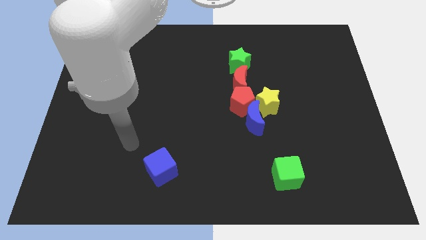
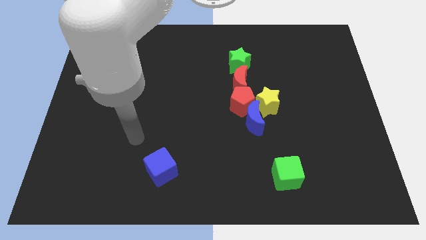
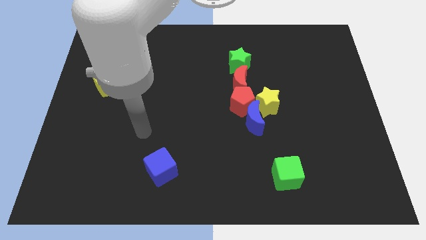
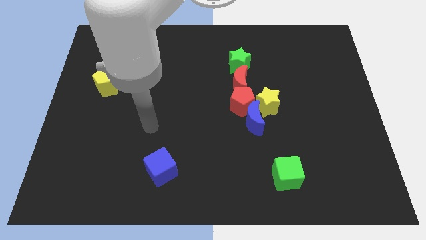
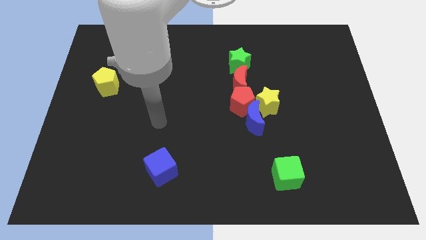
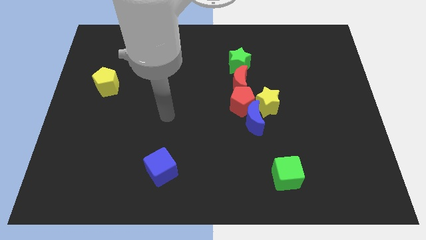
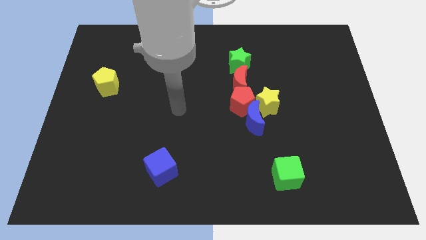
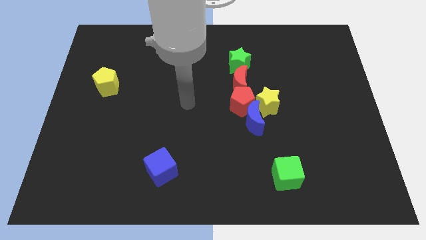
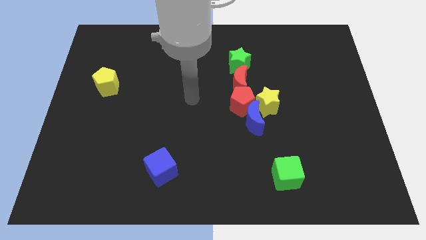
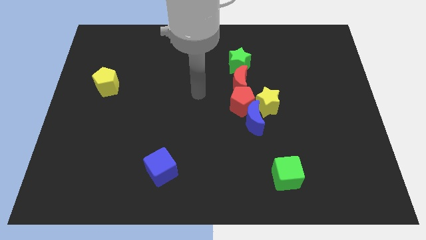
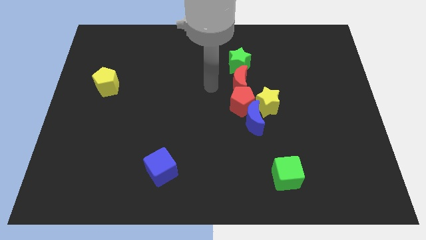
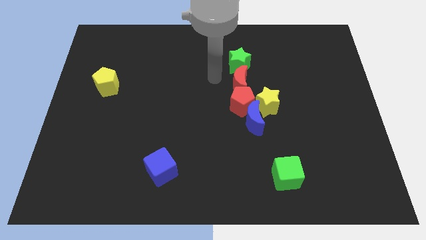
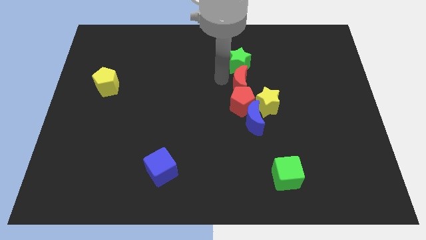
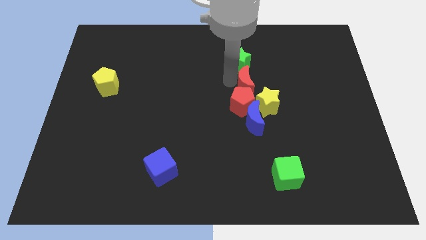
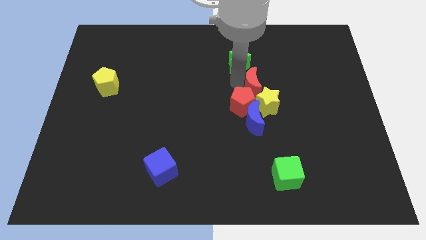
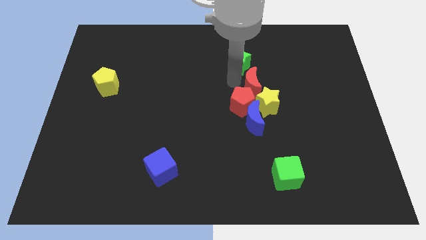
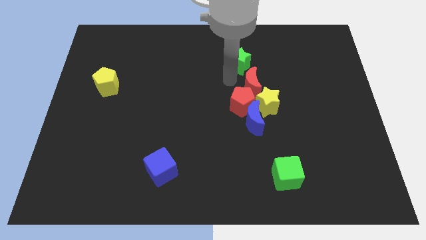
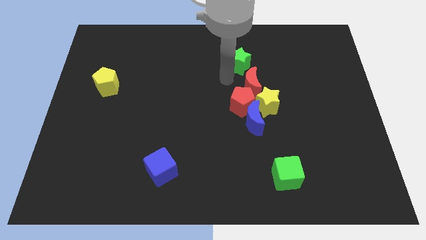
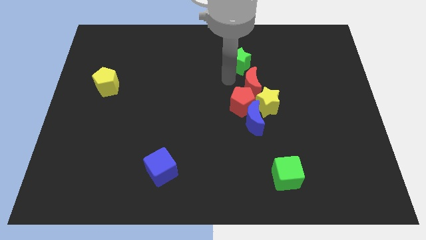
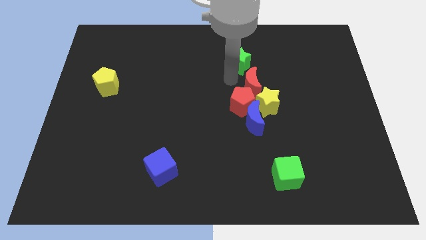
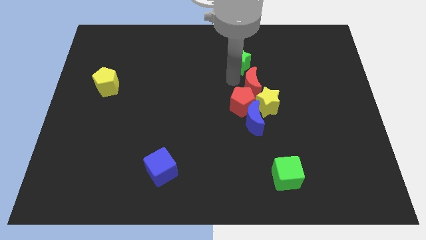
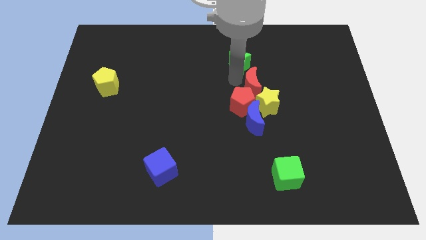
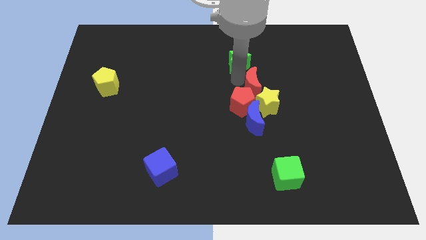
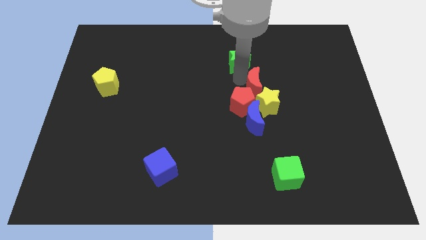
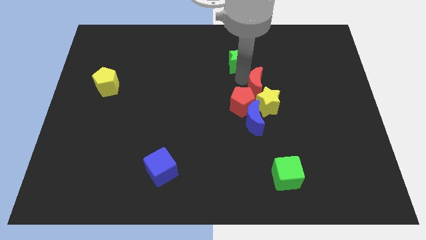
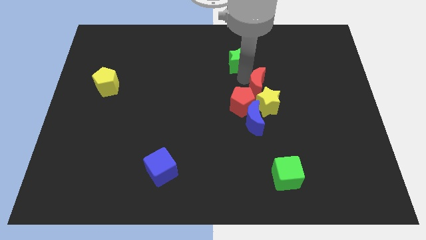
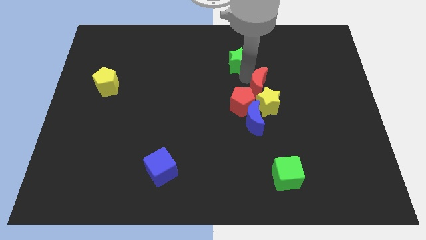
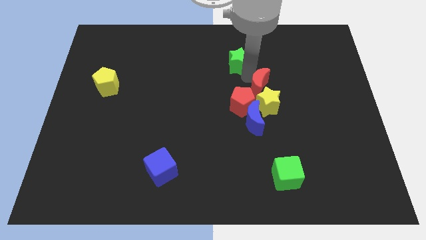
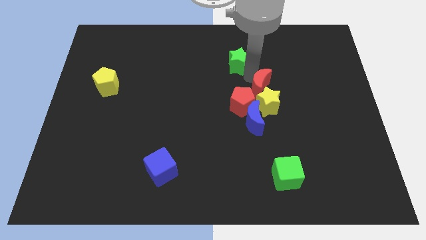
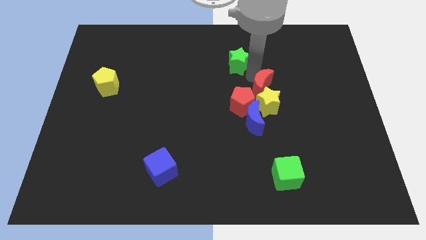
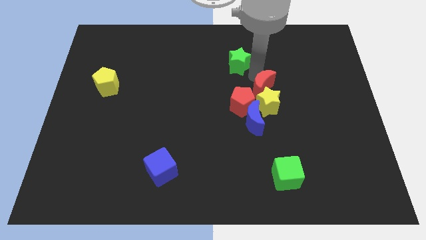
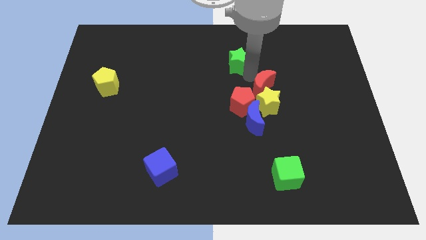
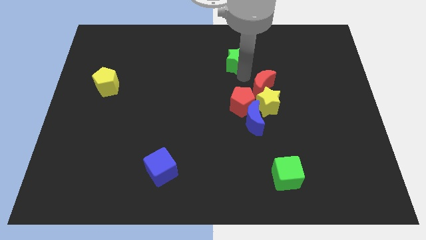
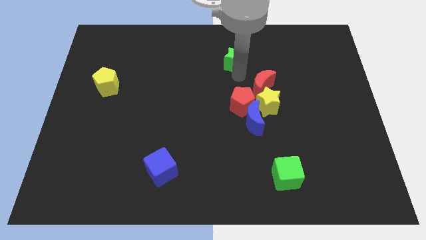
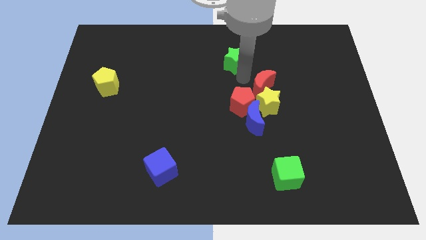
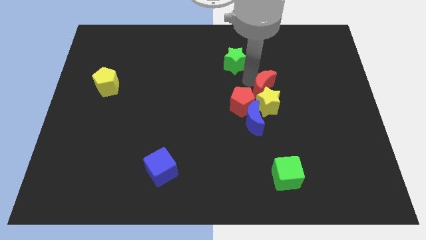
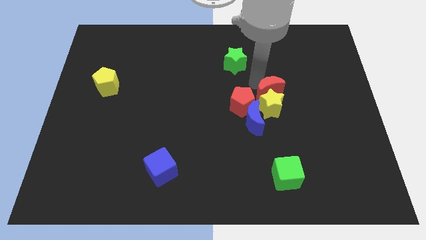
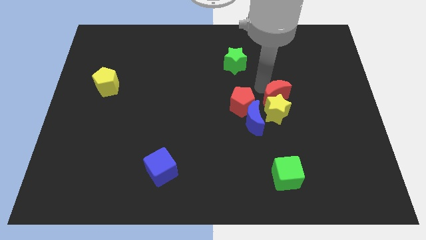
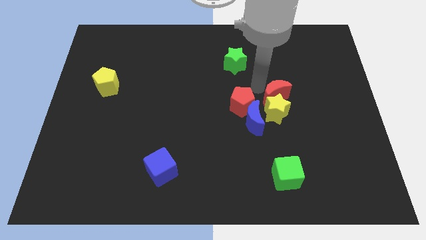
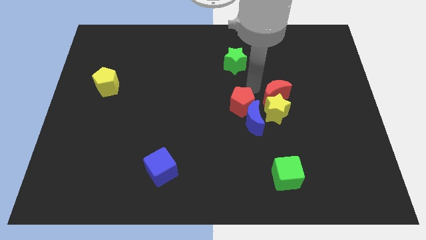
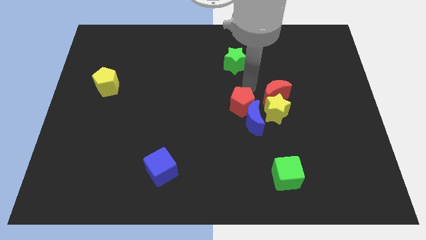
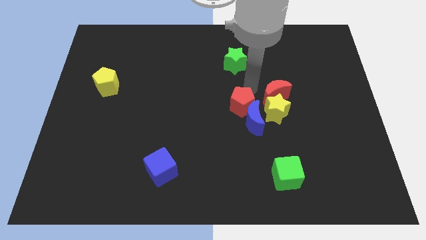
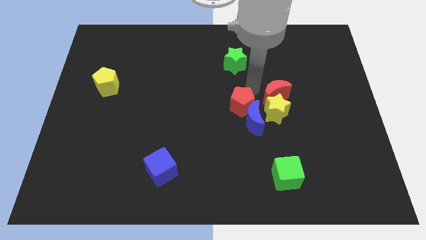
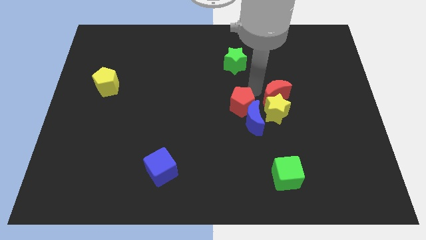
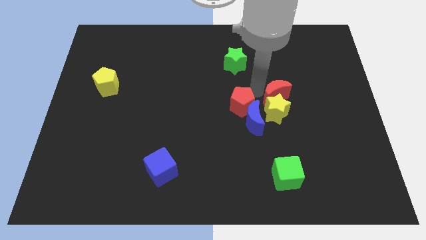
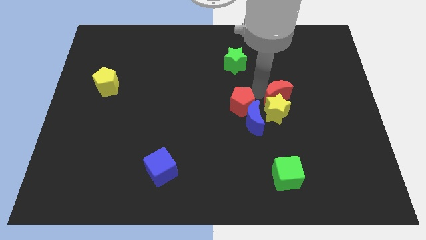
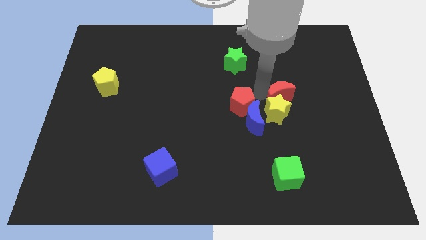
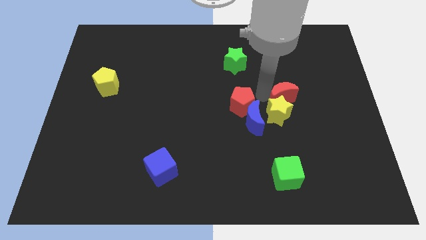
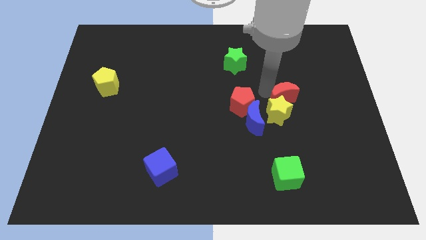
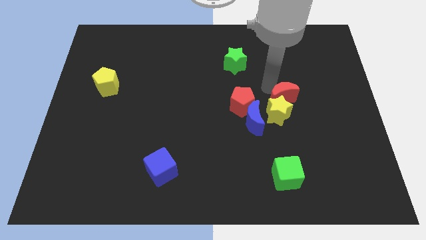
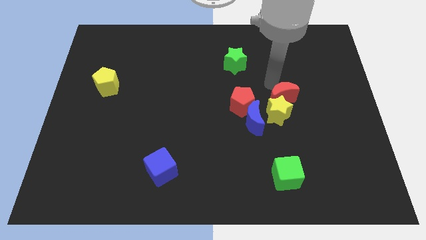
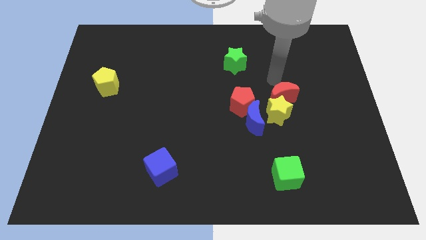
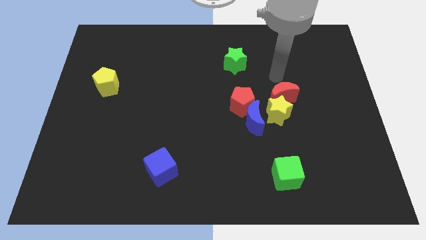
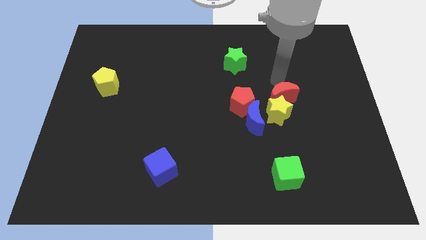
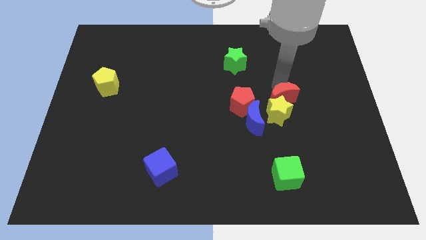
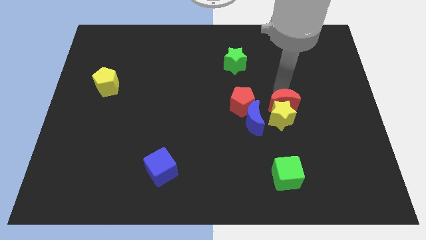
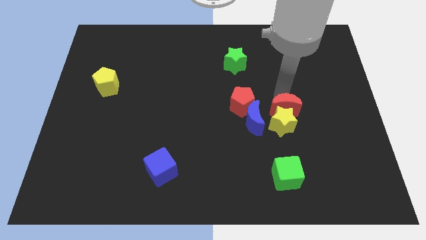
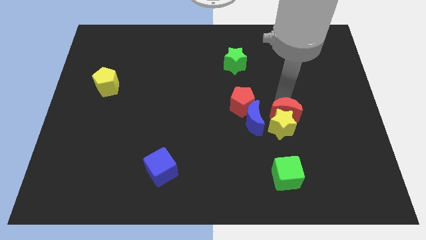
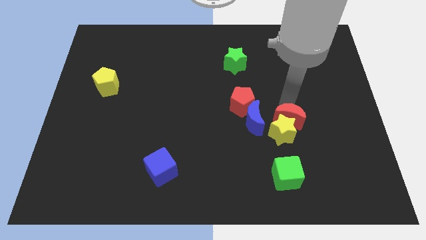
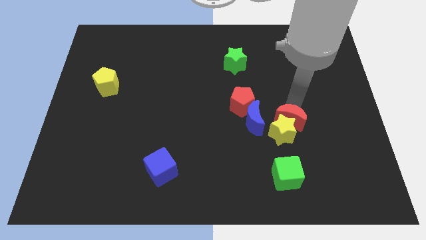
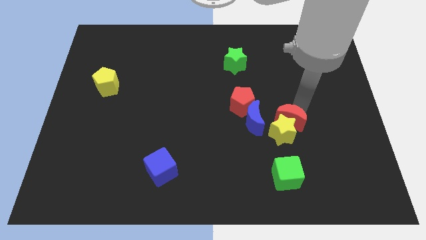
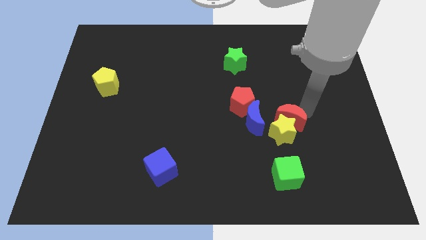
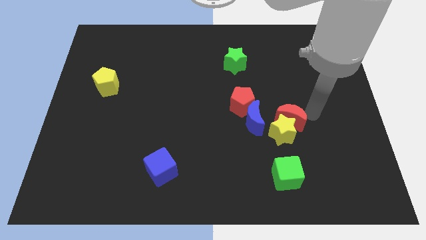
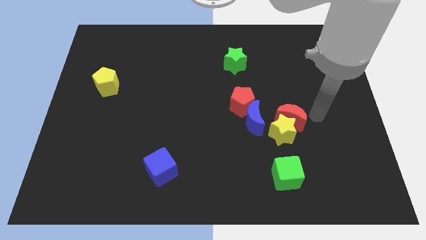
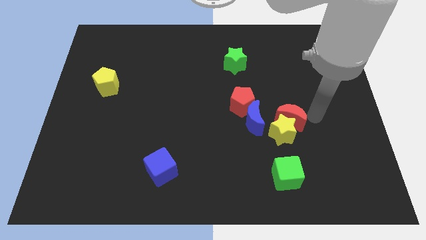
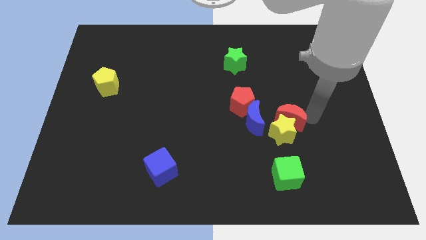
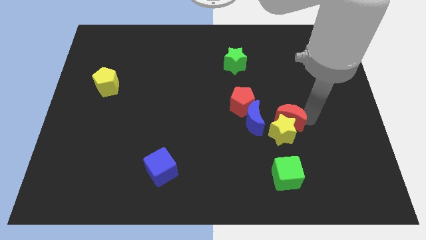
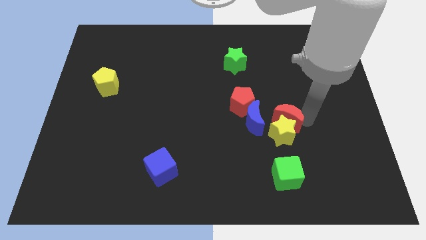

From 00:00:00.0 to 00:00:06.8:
slide the red moon to the bottom right side of the red pentagon

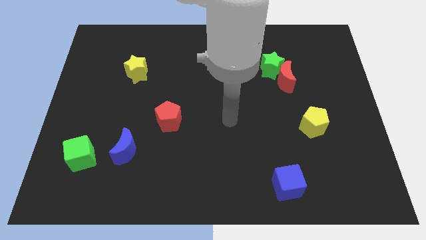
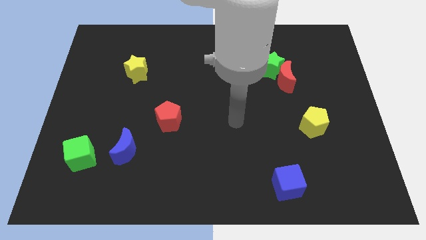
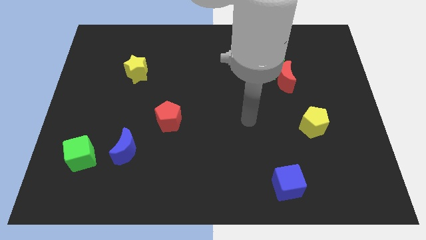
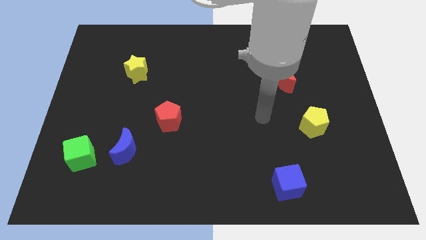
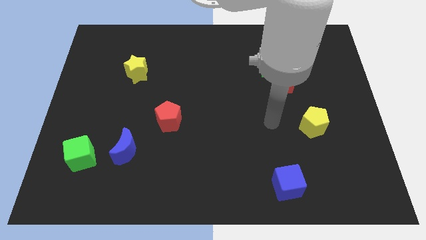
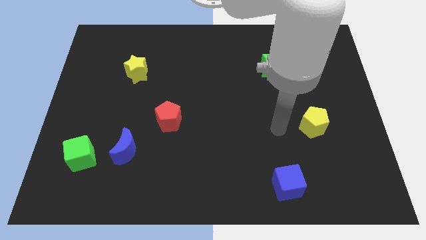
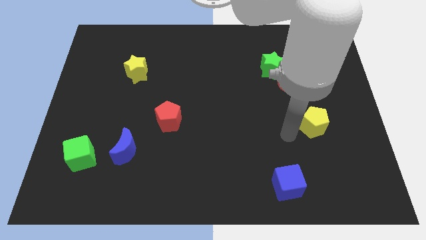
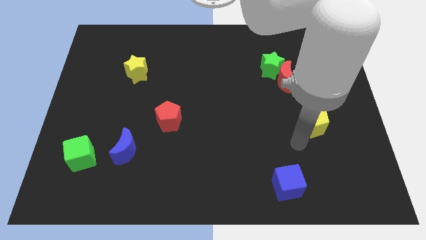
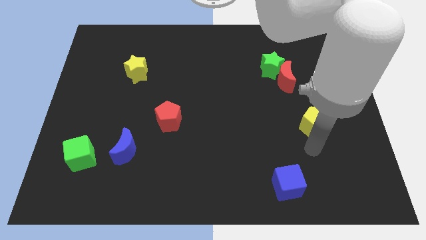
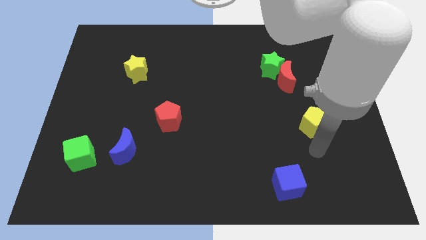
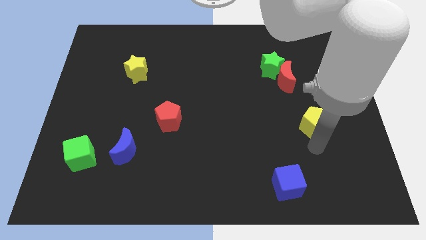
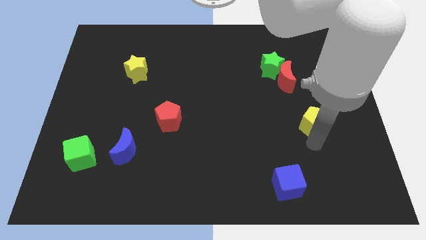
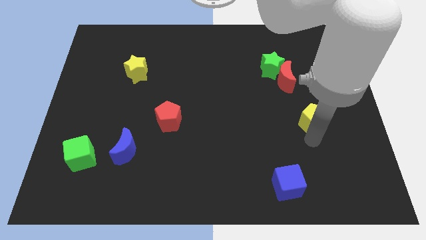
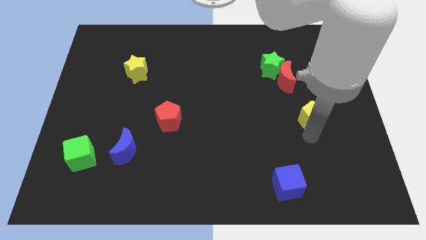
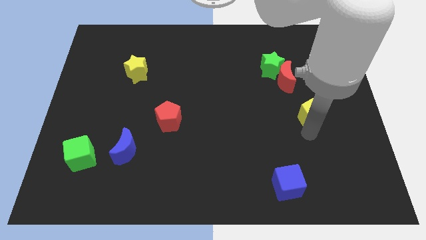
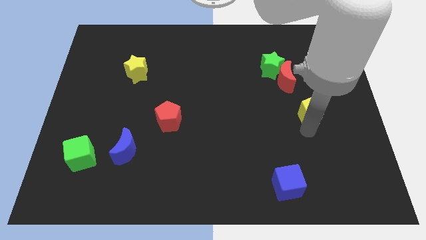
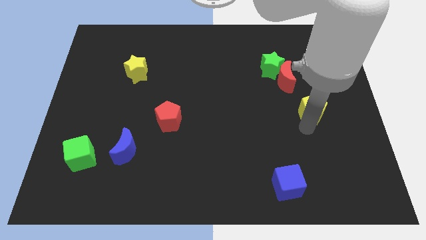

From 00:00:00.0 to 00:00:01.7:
slide the yellow pentagon diagonally down and to the right of the red moon
